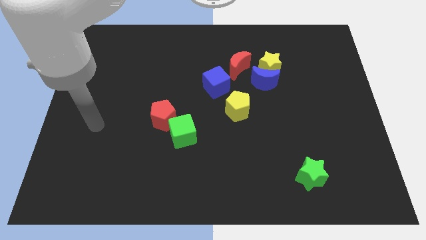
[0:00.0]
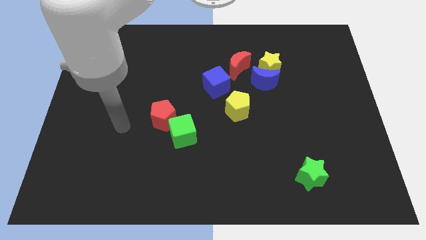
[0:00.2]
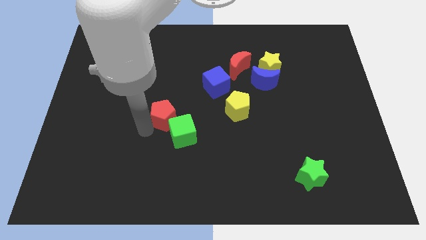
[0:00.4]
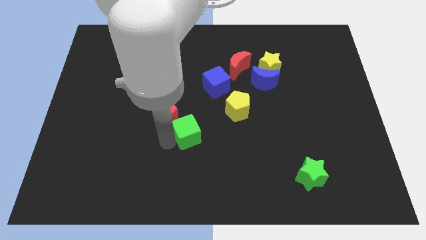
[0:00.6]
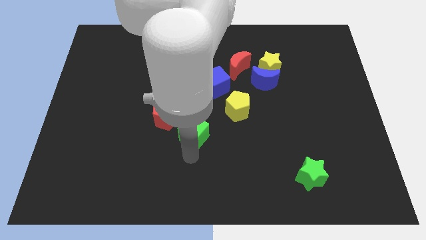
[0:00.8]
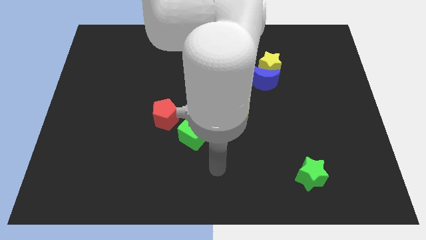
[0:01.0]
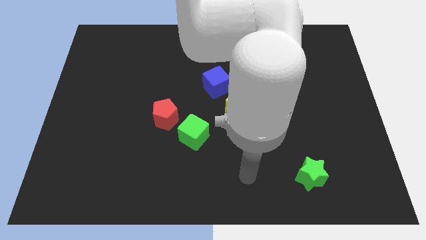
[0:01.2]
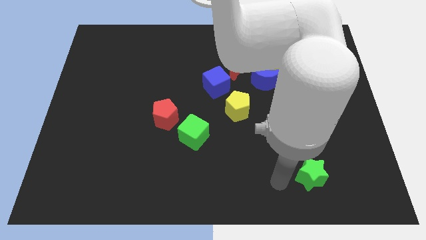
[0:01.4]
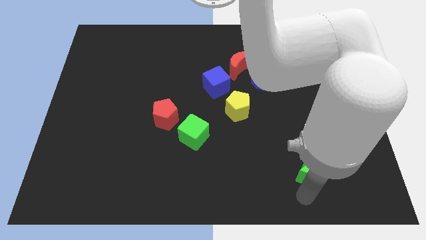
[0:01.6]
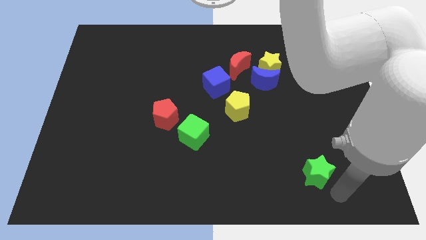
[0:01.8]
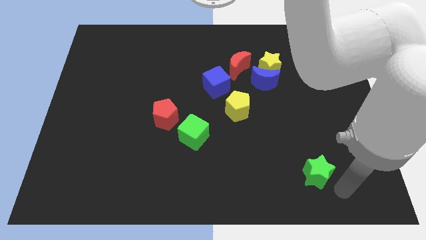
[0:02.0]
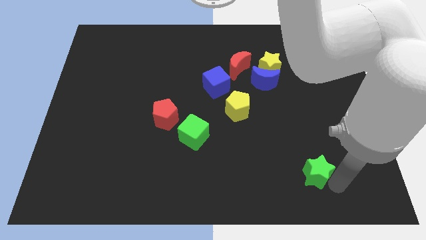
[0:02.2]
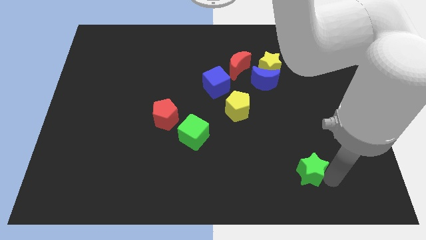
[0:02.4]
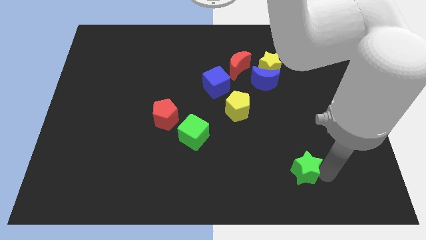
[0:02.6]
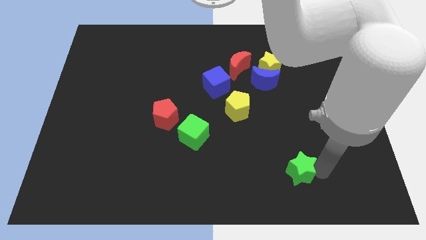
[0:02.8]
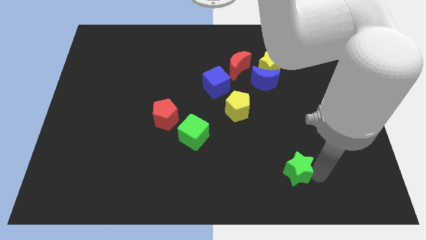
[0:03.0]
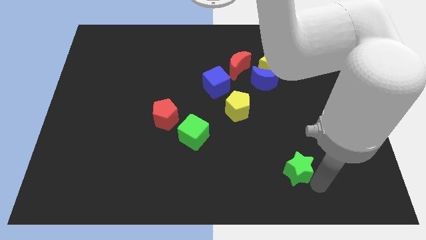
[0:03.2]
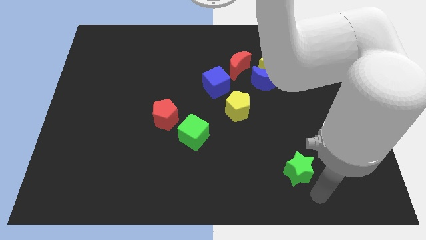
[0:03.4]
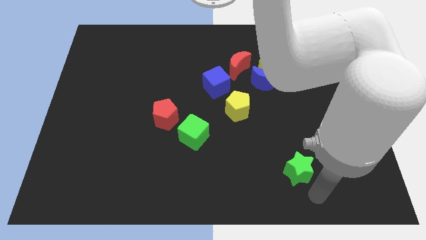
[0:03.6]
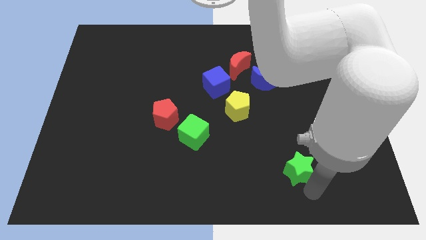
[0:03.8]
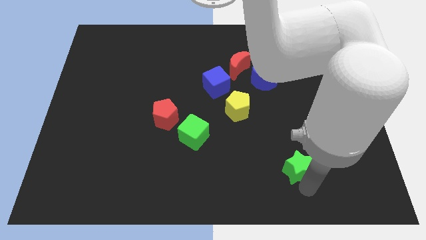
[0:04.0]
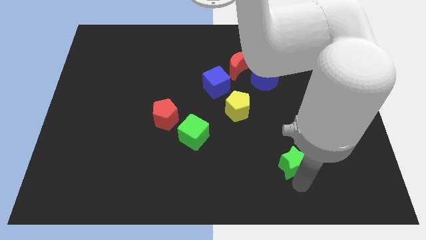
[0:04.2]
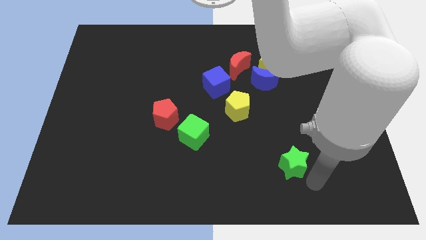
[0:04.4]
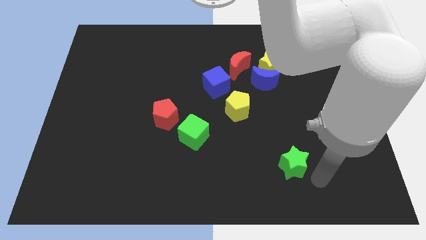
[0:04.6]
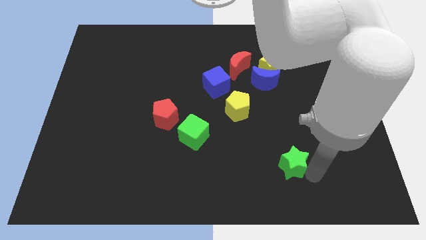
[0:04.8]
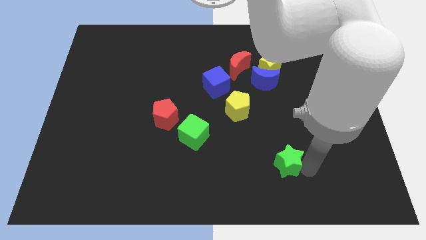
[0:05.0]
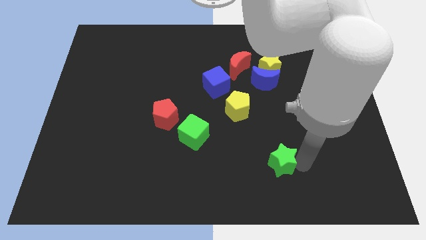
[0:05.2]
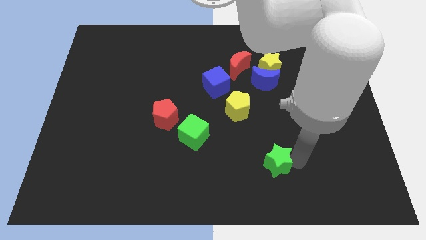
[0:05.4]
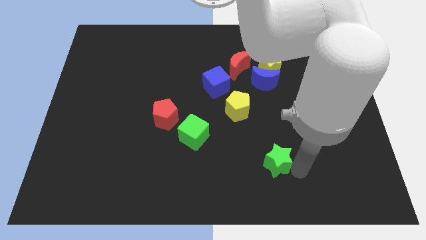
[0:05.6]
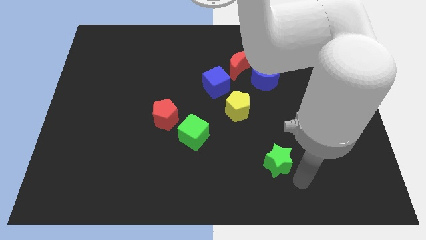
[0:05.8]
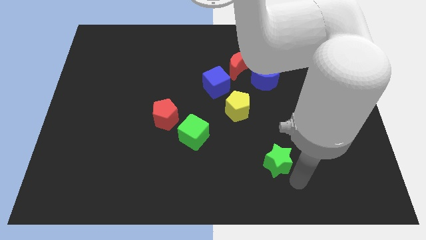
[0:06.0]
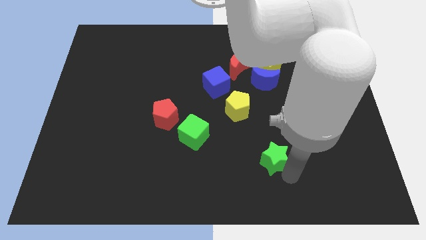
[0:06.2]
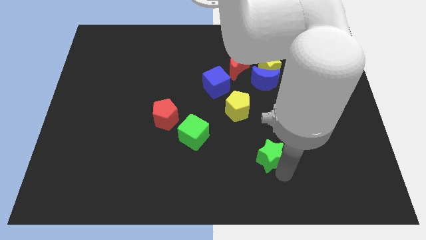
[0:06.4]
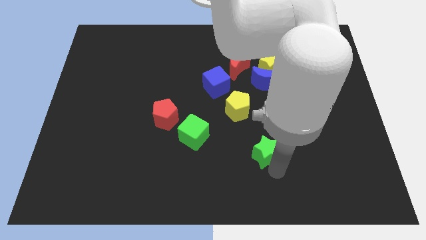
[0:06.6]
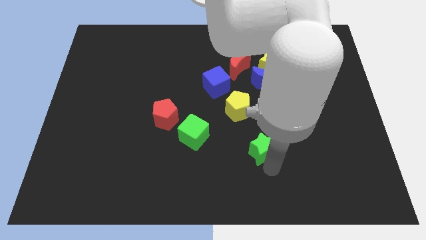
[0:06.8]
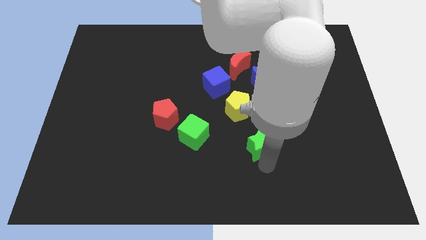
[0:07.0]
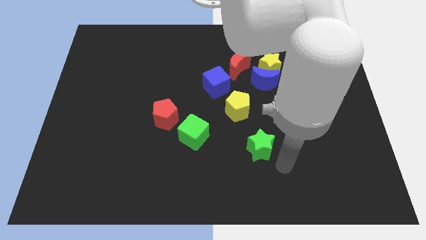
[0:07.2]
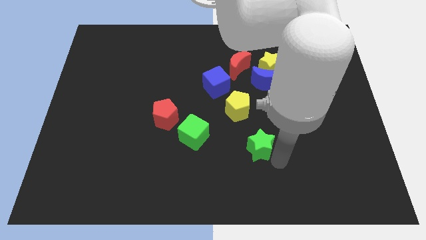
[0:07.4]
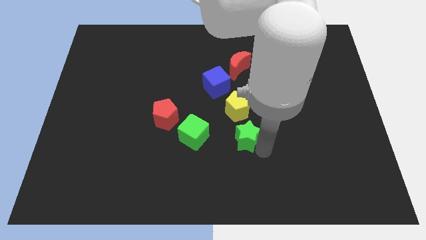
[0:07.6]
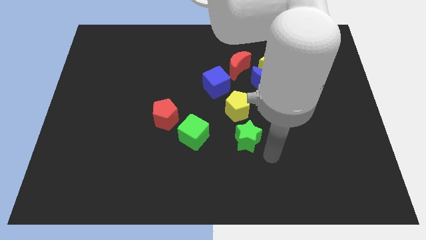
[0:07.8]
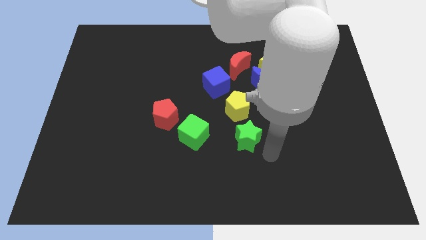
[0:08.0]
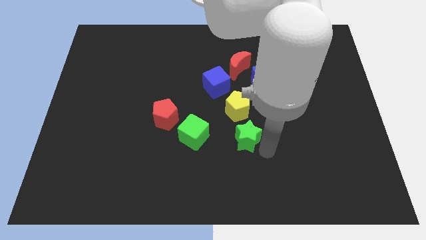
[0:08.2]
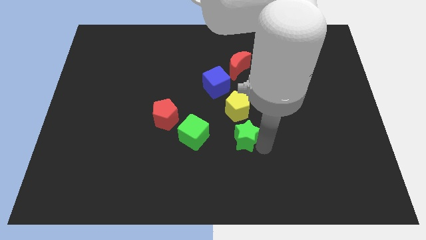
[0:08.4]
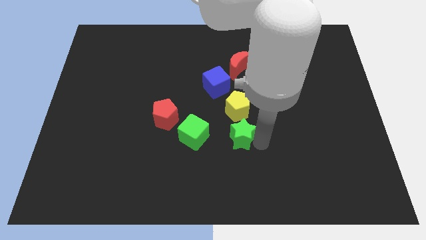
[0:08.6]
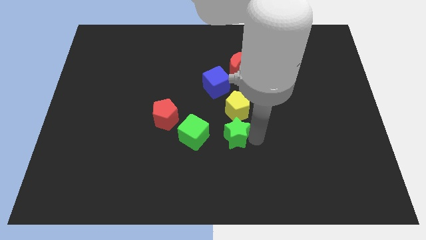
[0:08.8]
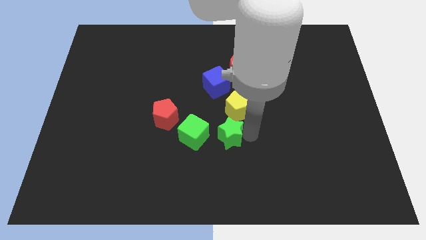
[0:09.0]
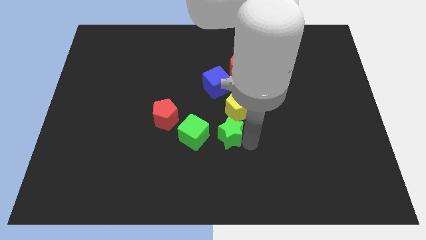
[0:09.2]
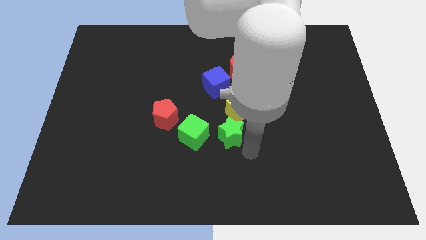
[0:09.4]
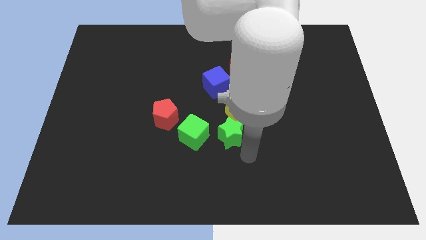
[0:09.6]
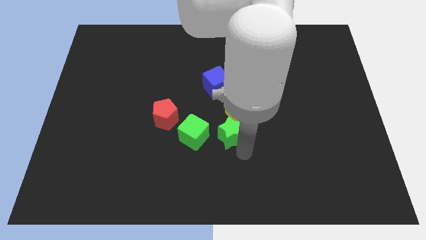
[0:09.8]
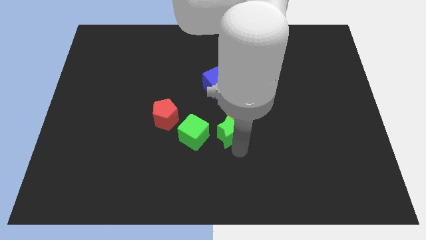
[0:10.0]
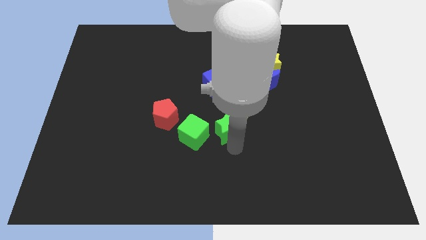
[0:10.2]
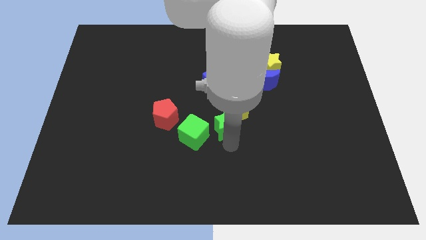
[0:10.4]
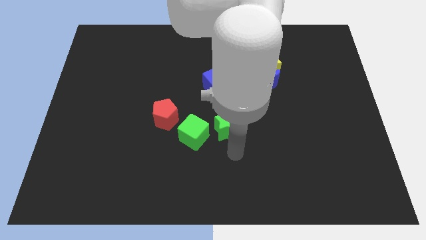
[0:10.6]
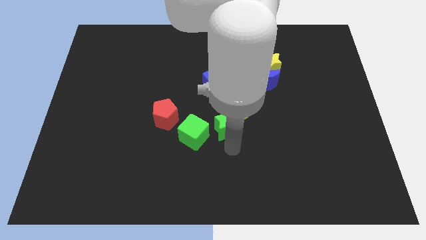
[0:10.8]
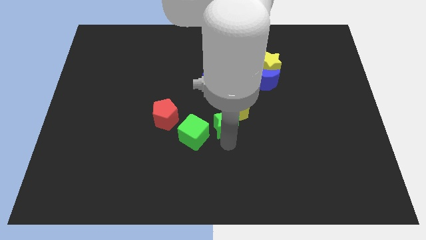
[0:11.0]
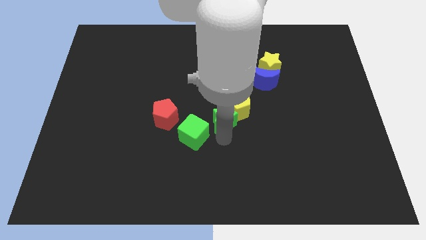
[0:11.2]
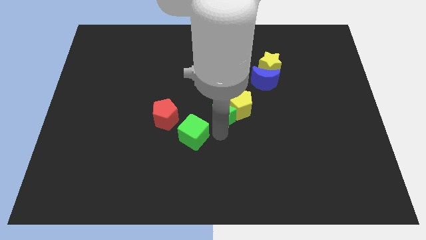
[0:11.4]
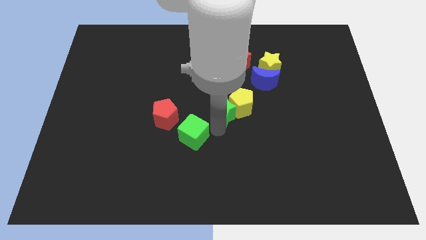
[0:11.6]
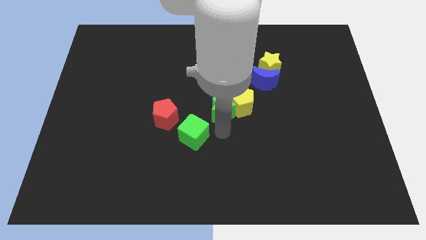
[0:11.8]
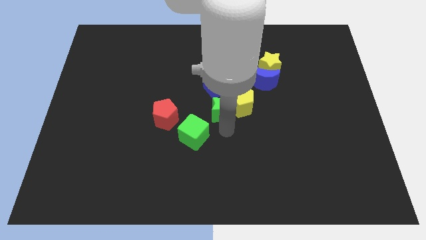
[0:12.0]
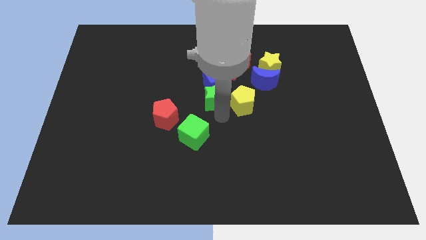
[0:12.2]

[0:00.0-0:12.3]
put the green star to the blue cube

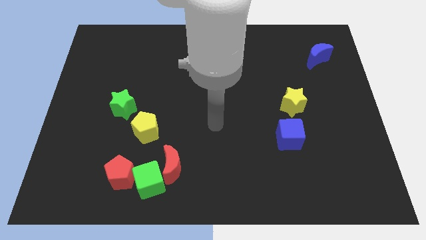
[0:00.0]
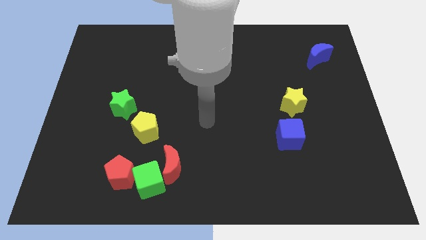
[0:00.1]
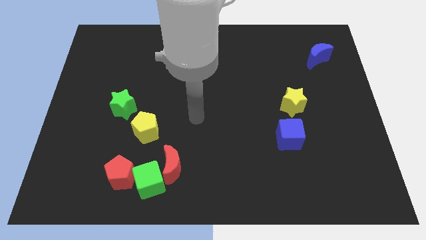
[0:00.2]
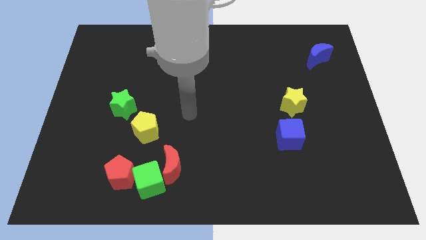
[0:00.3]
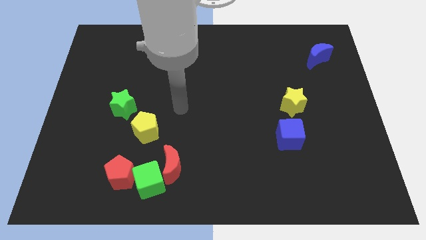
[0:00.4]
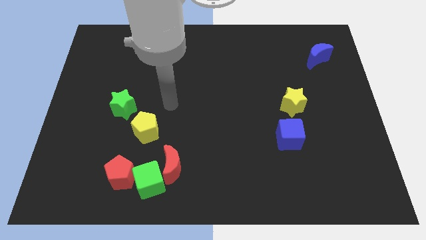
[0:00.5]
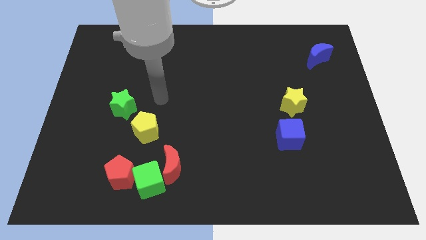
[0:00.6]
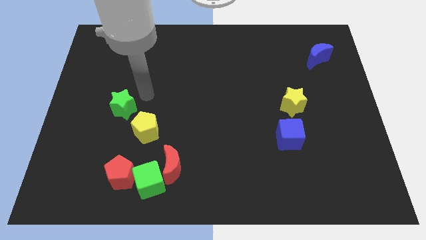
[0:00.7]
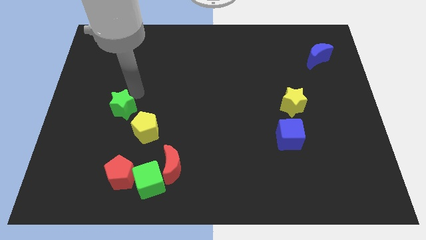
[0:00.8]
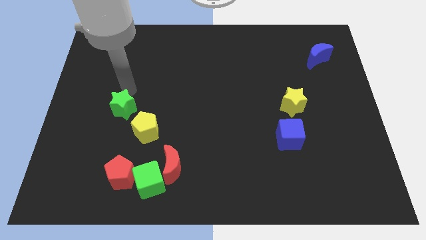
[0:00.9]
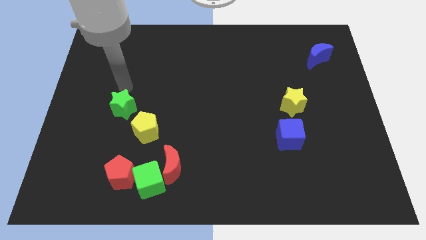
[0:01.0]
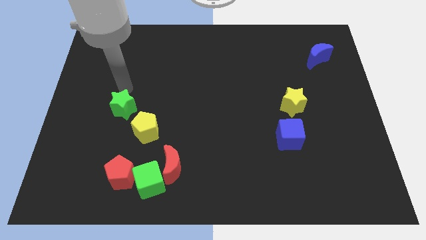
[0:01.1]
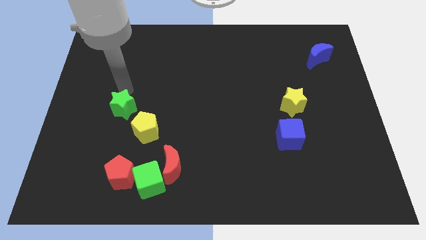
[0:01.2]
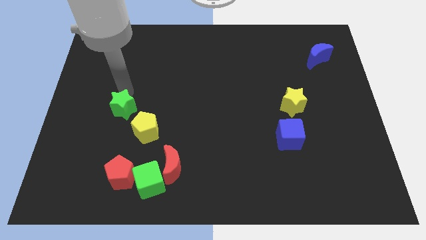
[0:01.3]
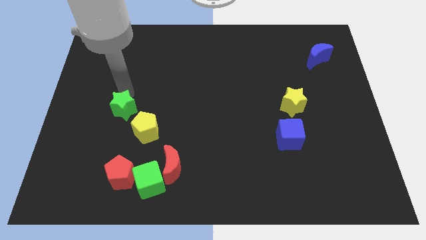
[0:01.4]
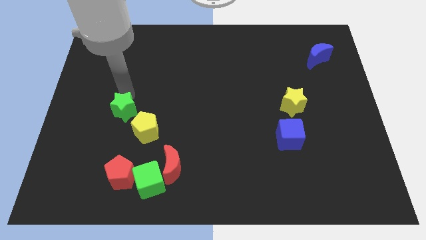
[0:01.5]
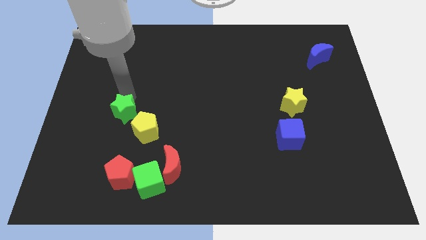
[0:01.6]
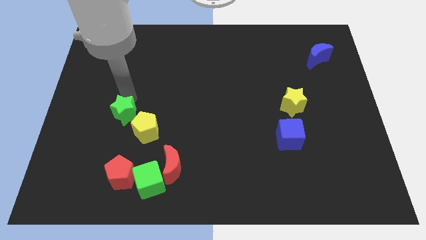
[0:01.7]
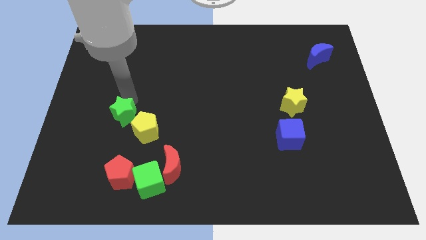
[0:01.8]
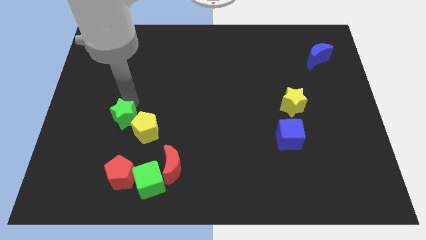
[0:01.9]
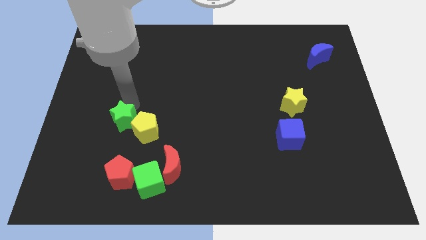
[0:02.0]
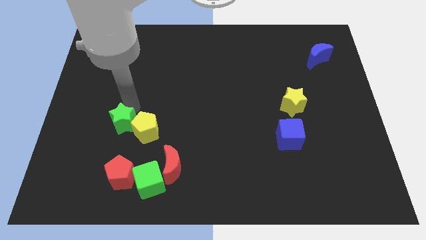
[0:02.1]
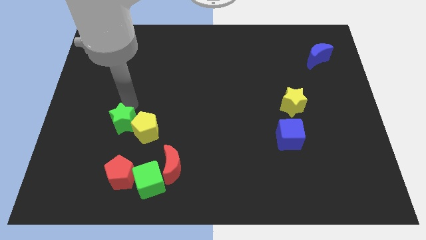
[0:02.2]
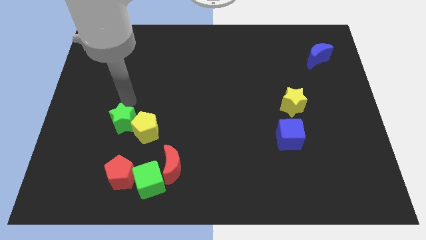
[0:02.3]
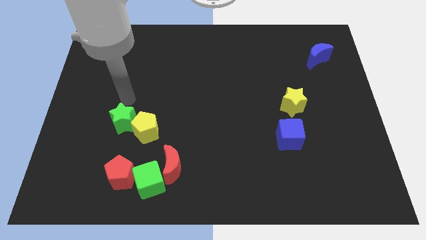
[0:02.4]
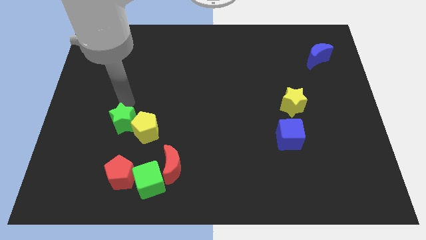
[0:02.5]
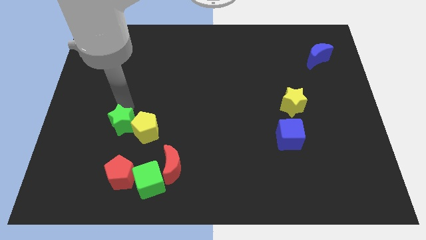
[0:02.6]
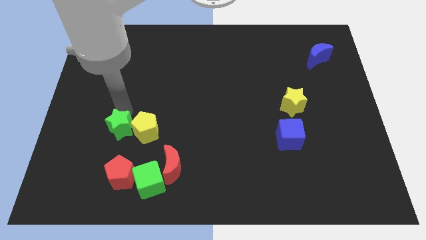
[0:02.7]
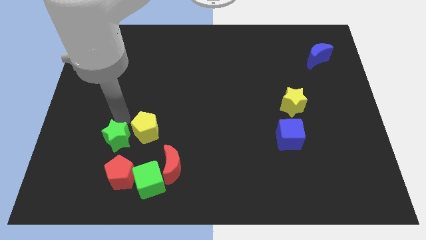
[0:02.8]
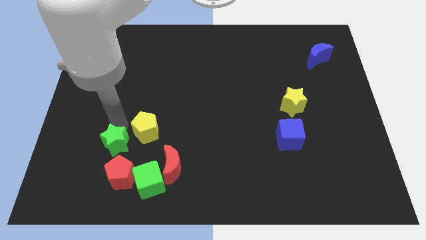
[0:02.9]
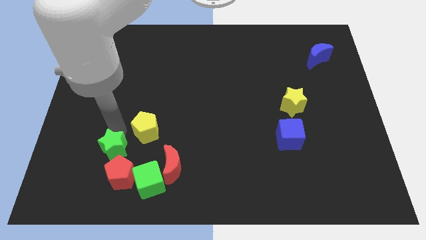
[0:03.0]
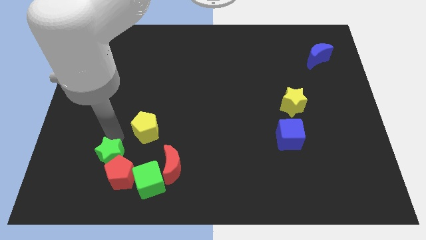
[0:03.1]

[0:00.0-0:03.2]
push the green star next to the red pentagon
